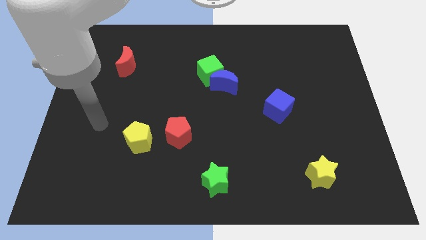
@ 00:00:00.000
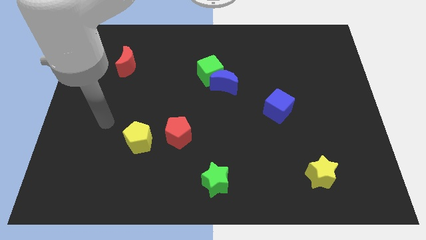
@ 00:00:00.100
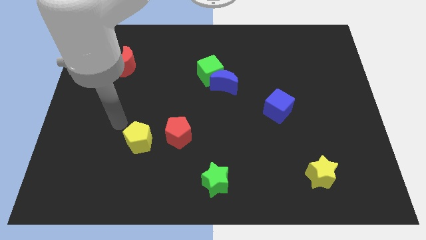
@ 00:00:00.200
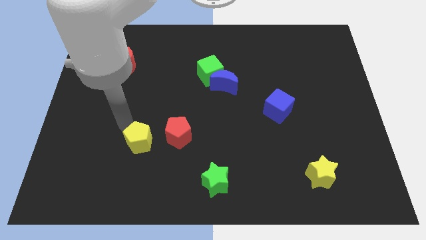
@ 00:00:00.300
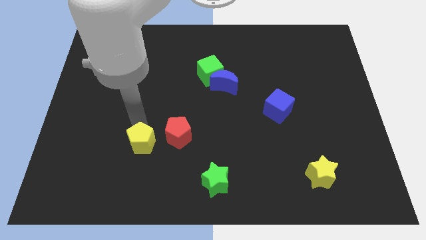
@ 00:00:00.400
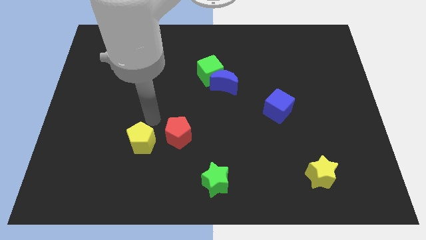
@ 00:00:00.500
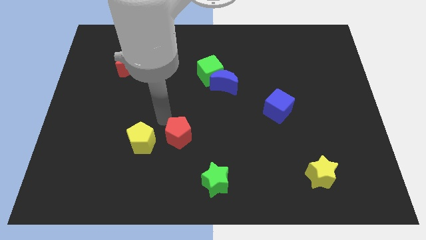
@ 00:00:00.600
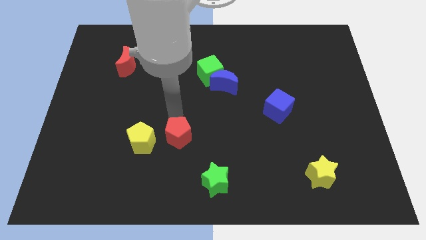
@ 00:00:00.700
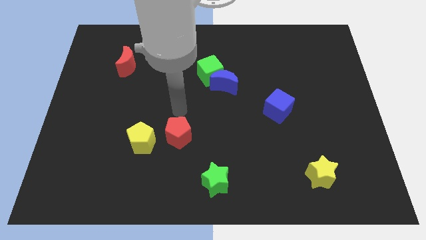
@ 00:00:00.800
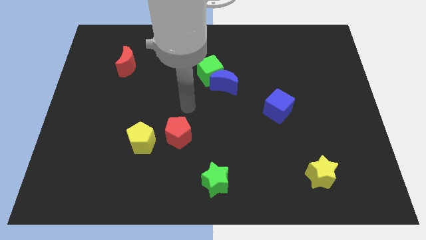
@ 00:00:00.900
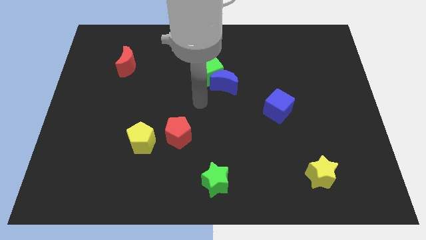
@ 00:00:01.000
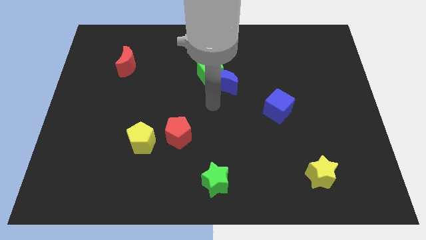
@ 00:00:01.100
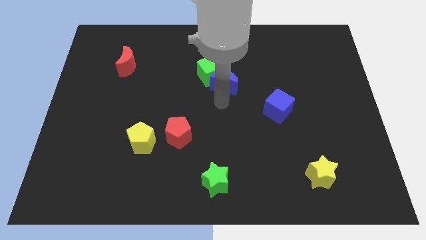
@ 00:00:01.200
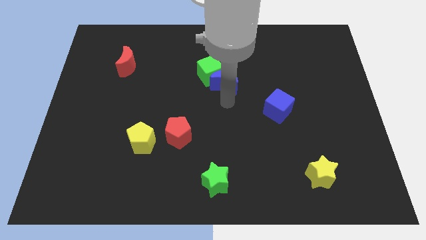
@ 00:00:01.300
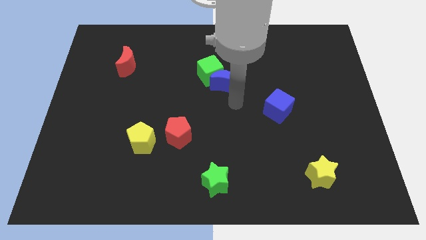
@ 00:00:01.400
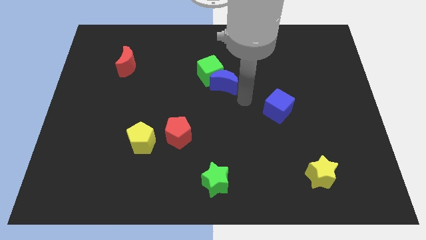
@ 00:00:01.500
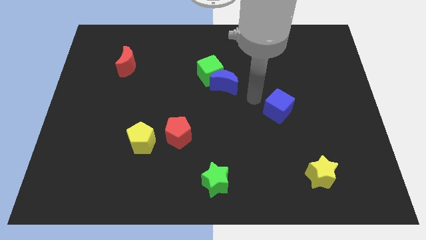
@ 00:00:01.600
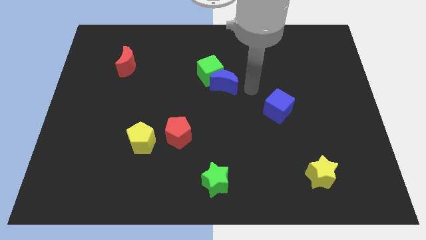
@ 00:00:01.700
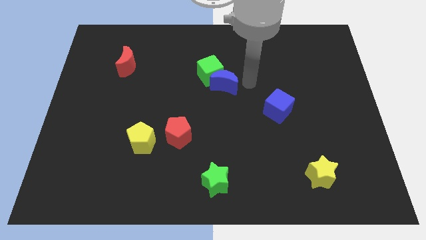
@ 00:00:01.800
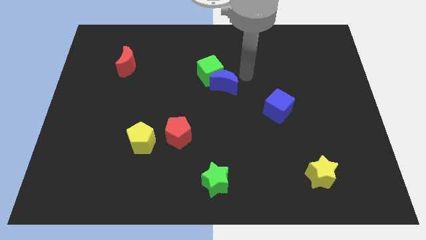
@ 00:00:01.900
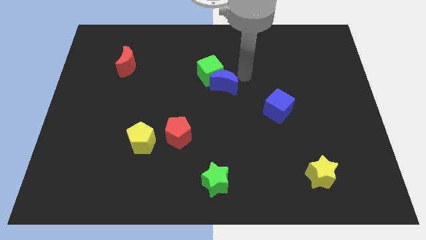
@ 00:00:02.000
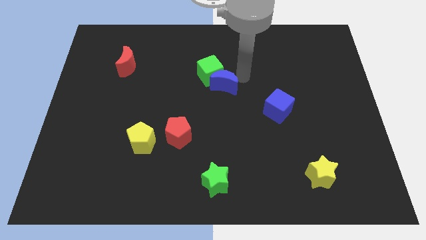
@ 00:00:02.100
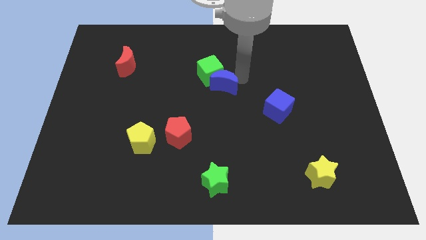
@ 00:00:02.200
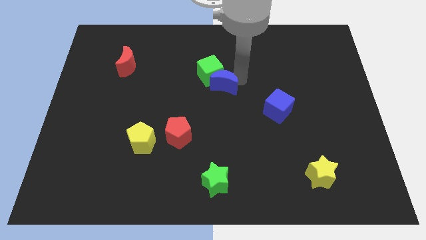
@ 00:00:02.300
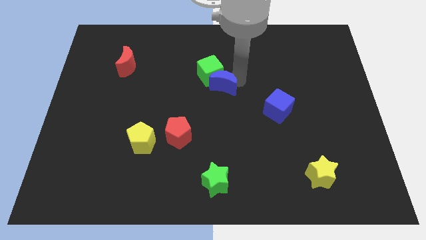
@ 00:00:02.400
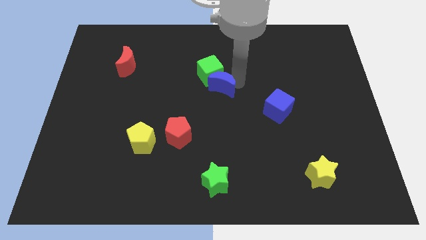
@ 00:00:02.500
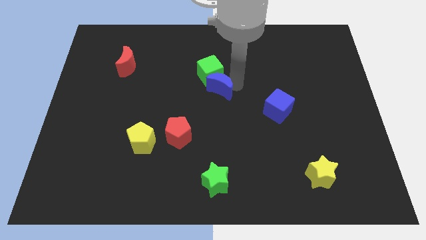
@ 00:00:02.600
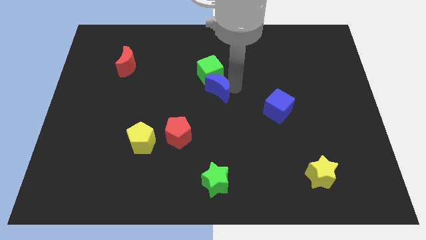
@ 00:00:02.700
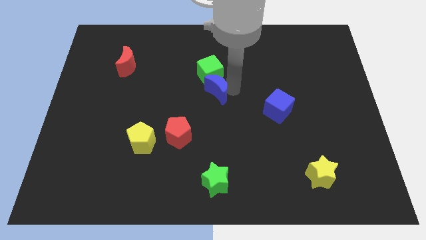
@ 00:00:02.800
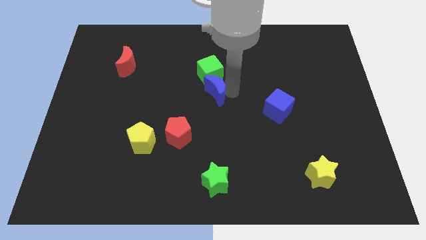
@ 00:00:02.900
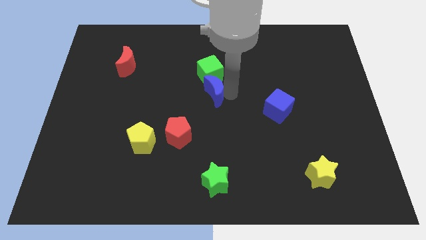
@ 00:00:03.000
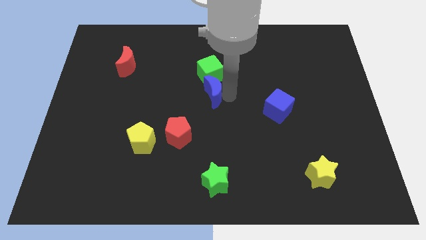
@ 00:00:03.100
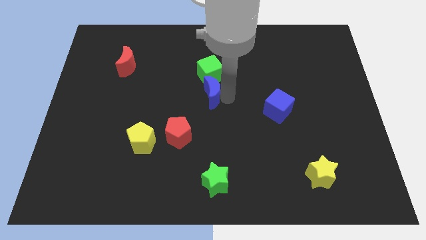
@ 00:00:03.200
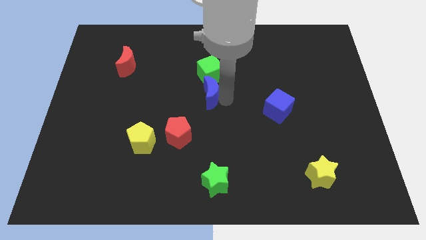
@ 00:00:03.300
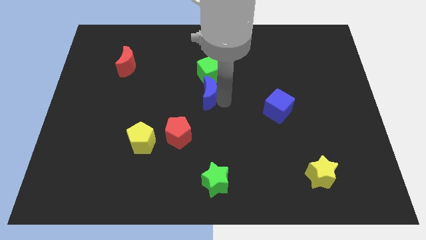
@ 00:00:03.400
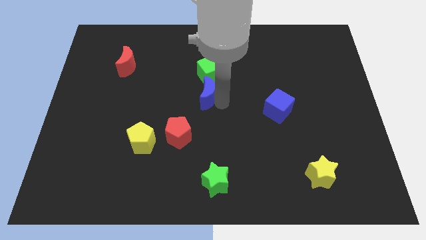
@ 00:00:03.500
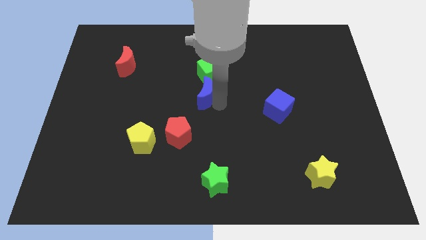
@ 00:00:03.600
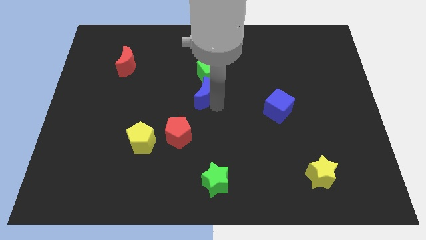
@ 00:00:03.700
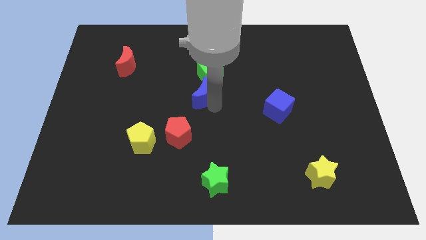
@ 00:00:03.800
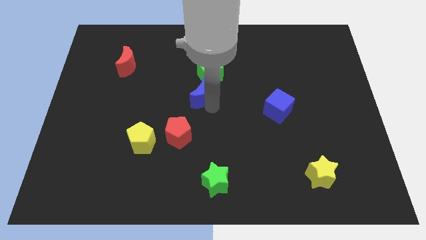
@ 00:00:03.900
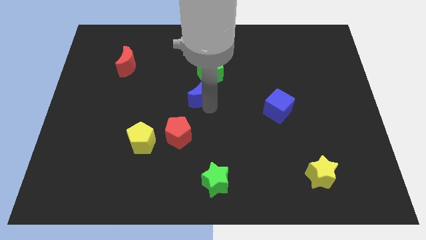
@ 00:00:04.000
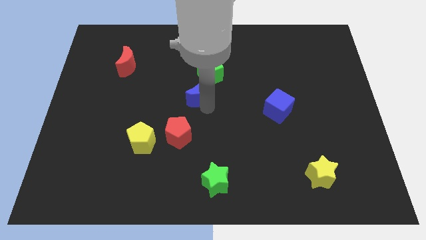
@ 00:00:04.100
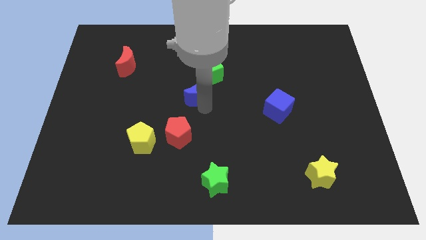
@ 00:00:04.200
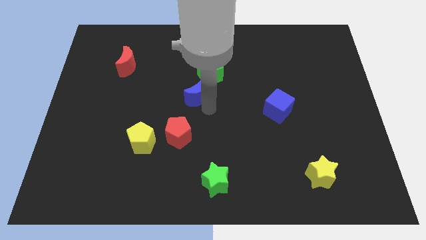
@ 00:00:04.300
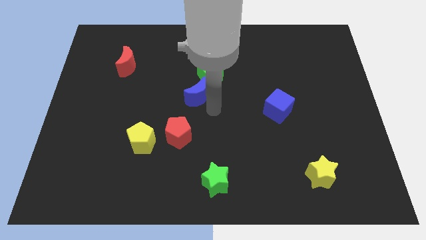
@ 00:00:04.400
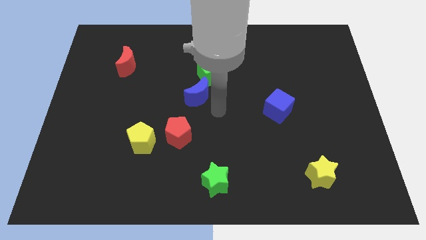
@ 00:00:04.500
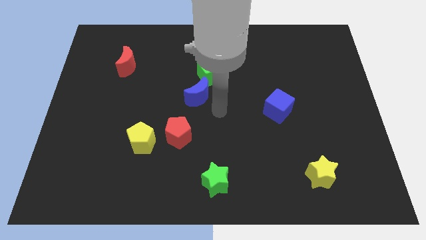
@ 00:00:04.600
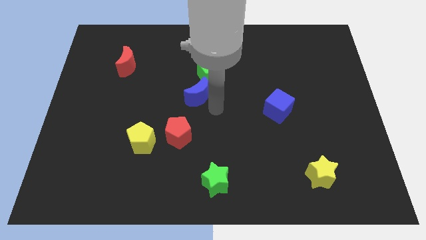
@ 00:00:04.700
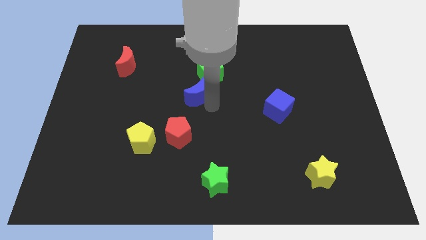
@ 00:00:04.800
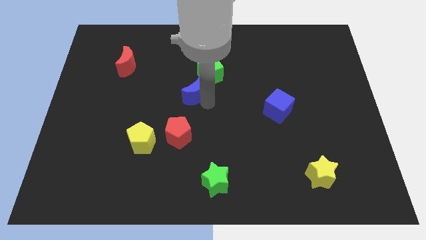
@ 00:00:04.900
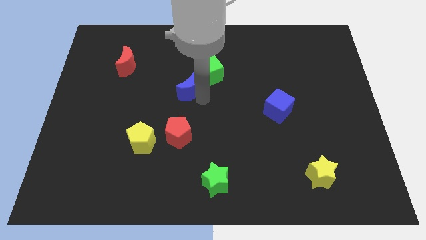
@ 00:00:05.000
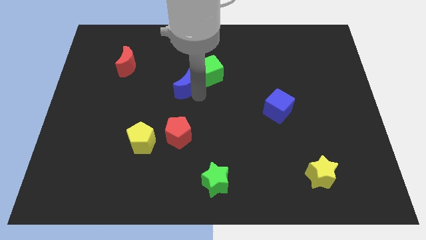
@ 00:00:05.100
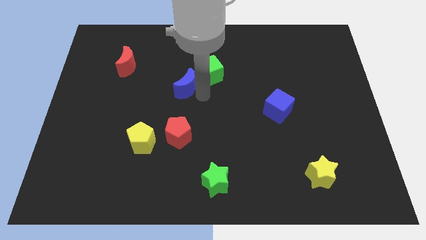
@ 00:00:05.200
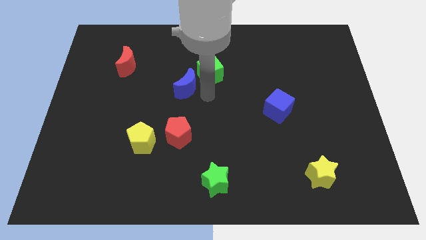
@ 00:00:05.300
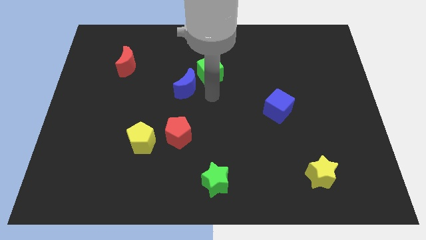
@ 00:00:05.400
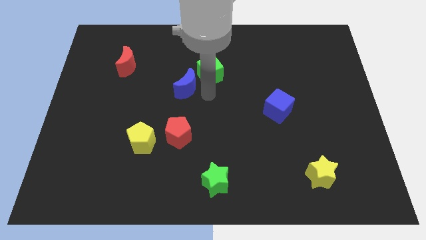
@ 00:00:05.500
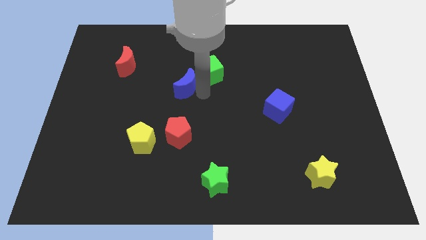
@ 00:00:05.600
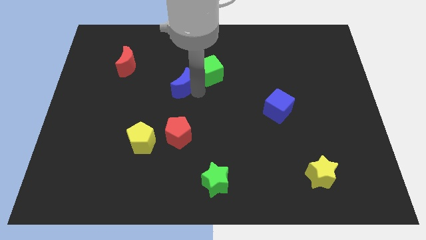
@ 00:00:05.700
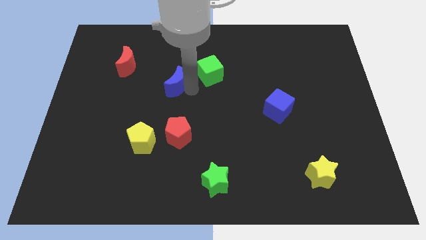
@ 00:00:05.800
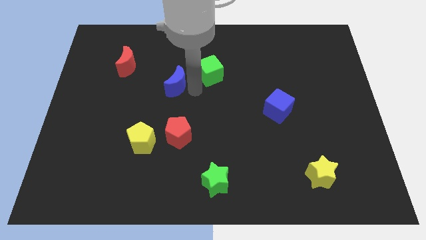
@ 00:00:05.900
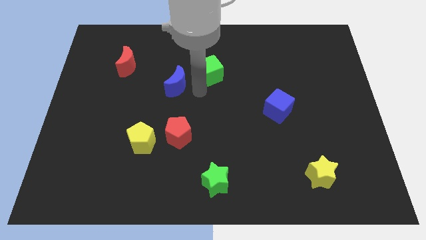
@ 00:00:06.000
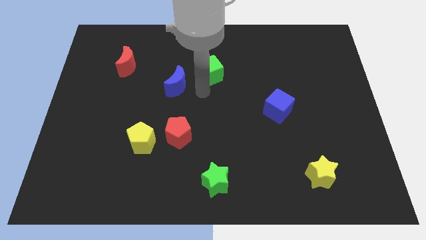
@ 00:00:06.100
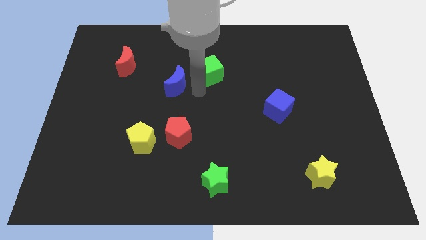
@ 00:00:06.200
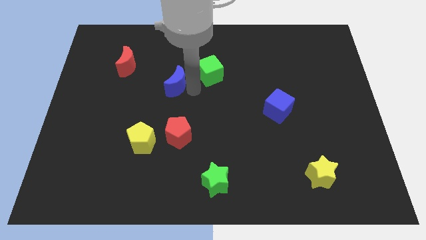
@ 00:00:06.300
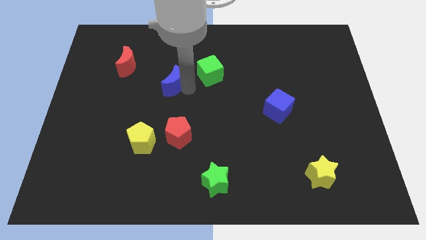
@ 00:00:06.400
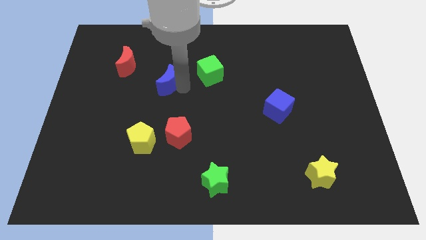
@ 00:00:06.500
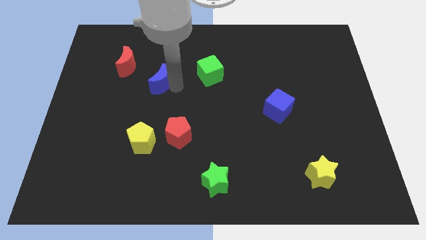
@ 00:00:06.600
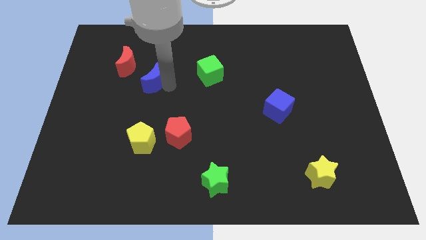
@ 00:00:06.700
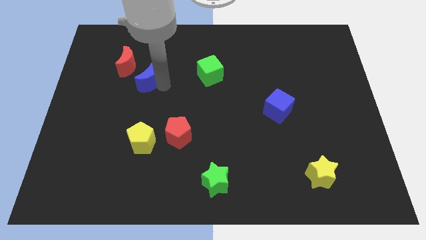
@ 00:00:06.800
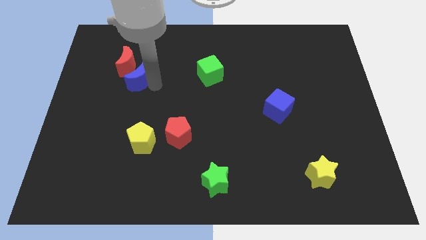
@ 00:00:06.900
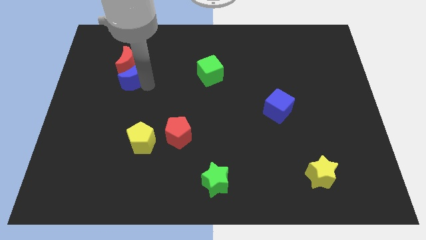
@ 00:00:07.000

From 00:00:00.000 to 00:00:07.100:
move the blue moon to the red moon
